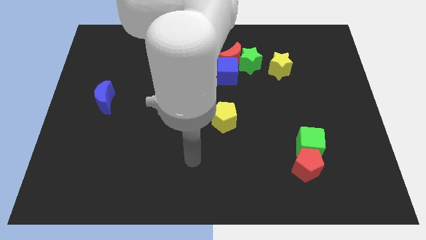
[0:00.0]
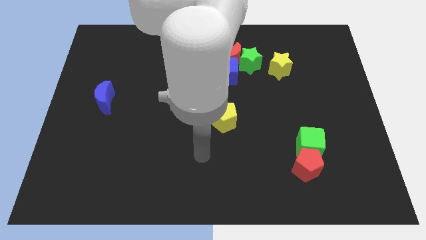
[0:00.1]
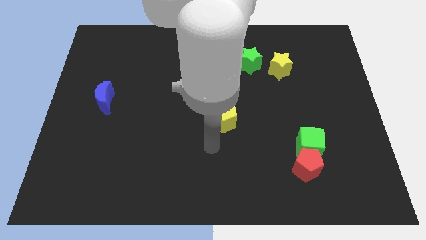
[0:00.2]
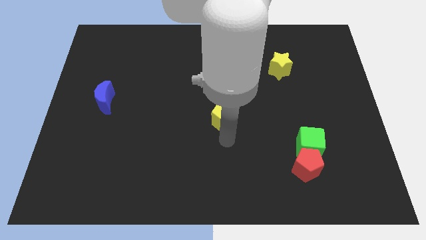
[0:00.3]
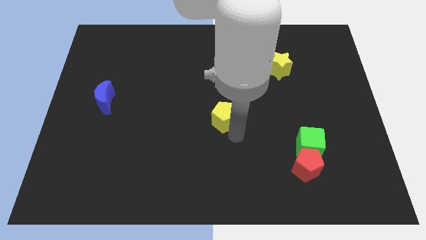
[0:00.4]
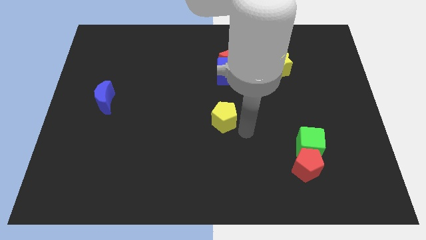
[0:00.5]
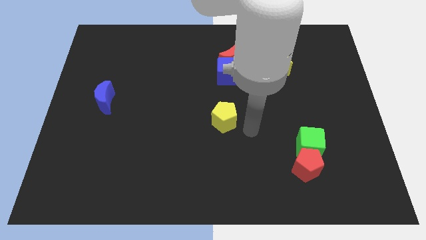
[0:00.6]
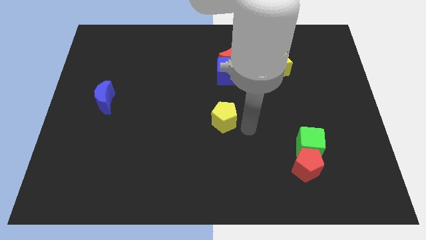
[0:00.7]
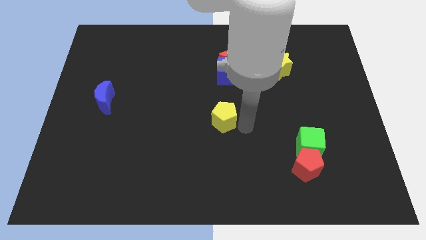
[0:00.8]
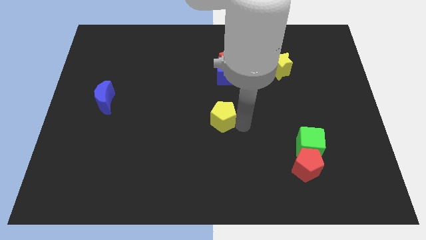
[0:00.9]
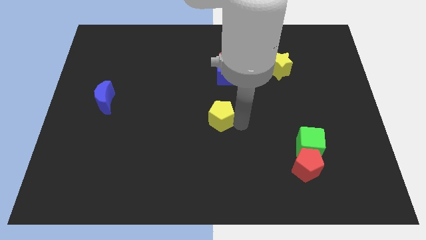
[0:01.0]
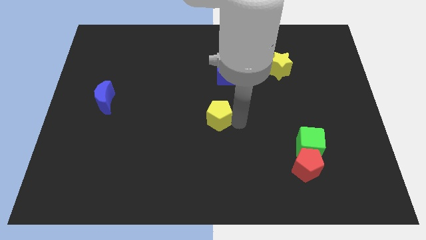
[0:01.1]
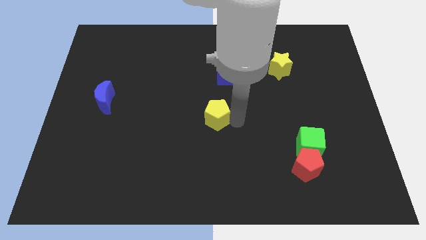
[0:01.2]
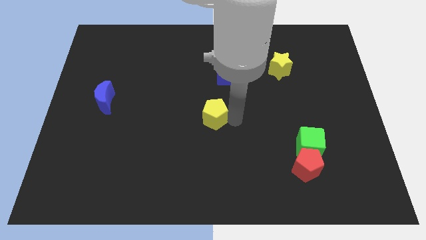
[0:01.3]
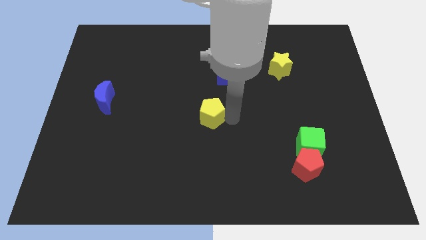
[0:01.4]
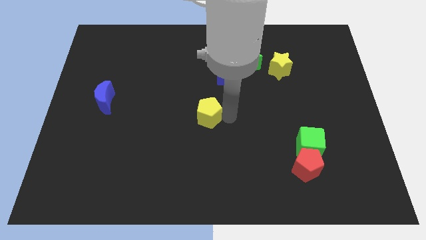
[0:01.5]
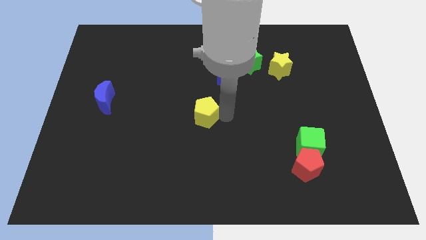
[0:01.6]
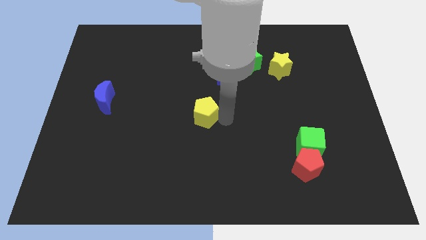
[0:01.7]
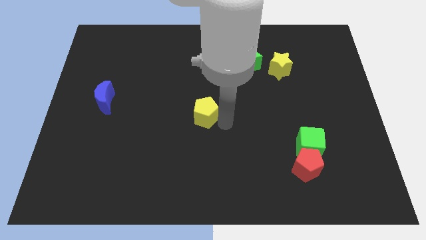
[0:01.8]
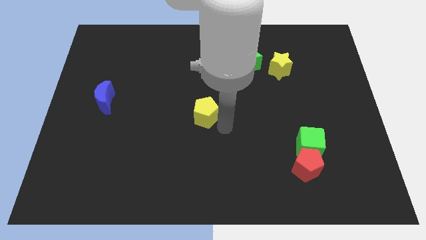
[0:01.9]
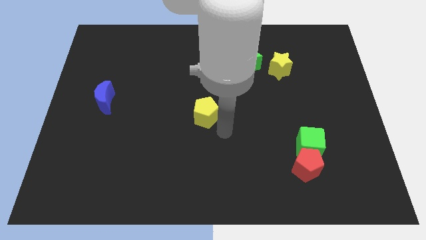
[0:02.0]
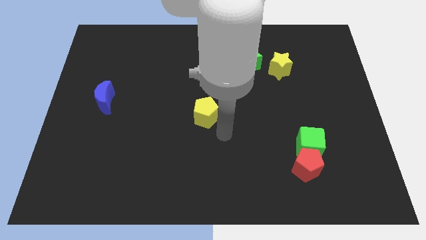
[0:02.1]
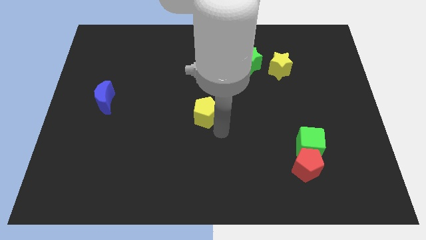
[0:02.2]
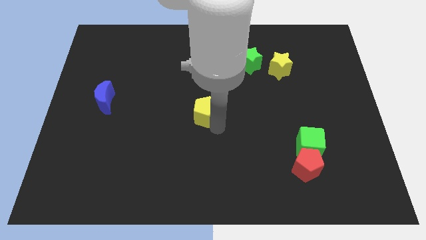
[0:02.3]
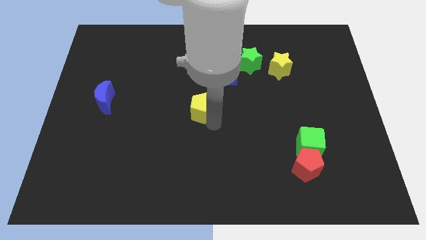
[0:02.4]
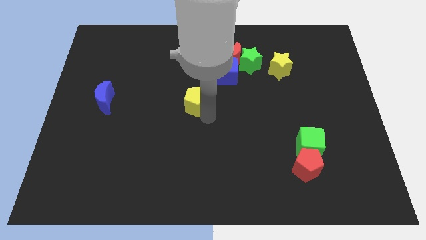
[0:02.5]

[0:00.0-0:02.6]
slide the yellow pentagon slightly up and left diagonally

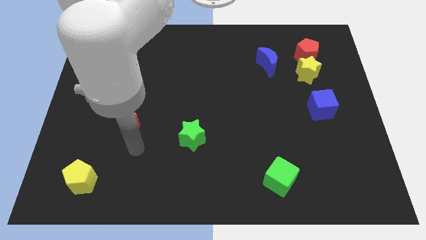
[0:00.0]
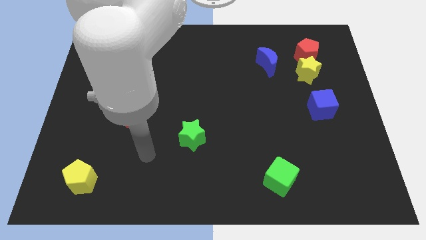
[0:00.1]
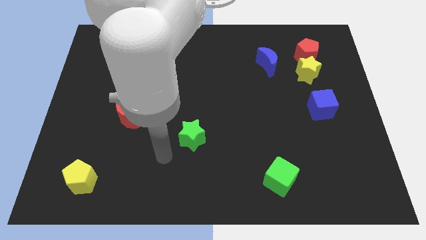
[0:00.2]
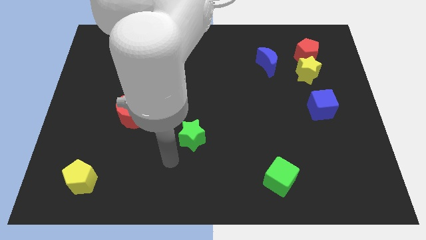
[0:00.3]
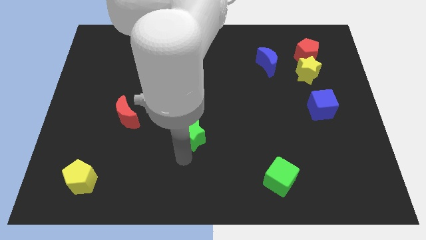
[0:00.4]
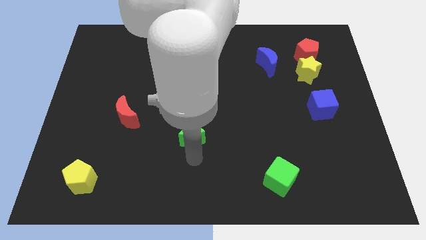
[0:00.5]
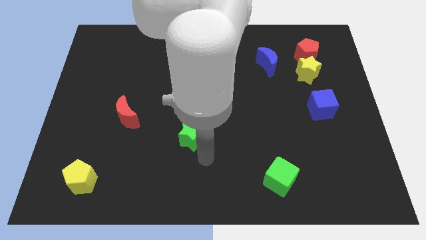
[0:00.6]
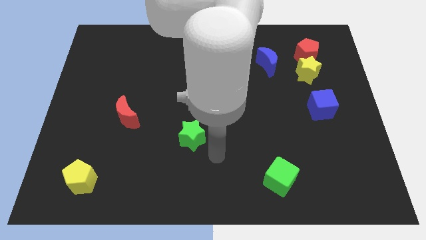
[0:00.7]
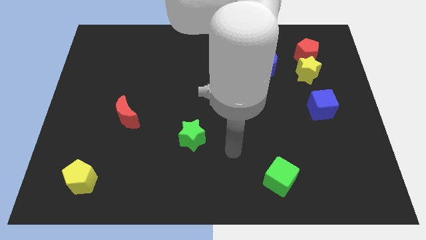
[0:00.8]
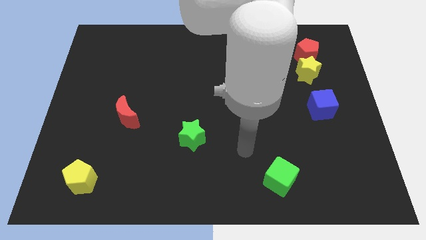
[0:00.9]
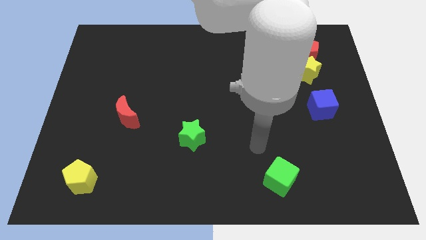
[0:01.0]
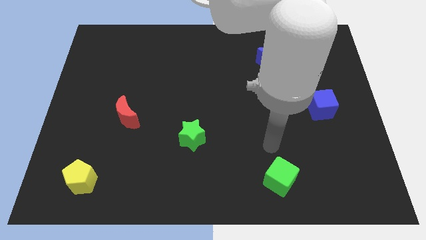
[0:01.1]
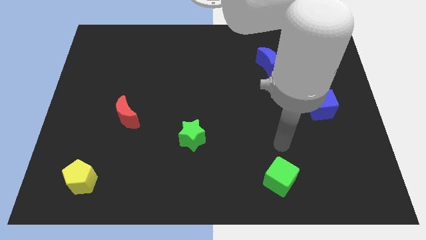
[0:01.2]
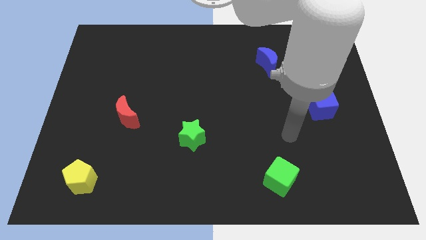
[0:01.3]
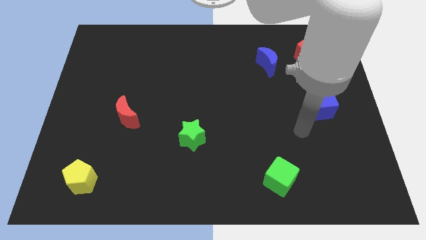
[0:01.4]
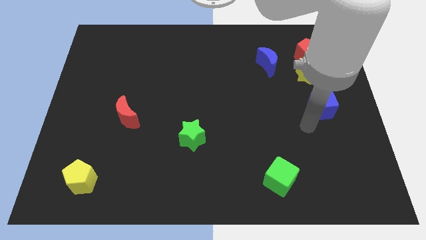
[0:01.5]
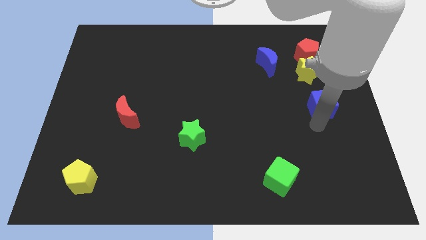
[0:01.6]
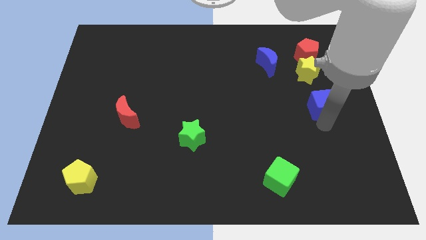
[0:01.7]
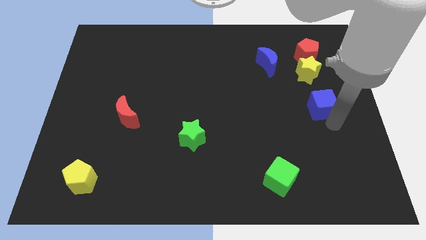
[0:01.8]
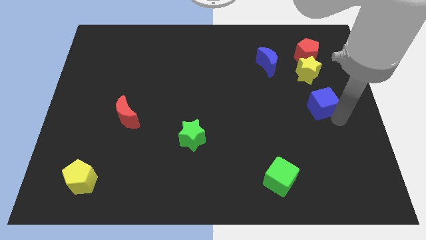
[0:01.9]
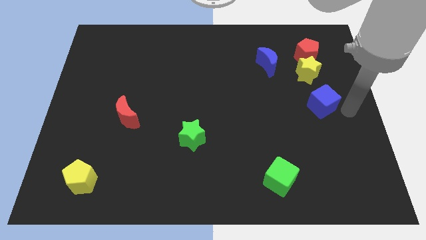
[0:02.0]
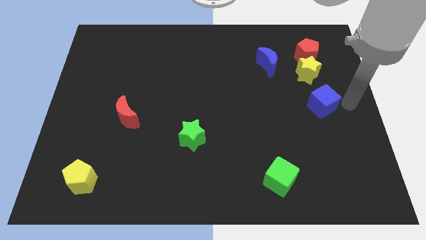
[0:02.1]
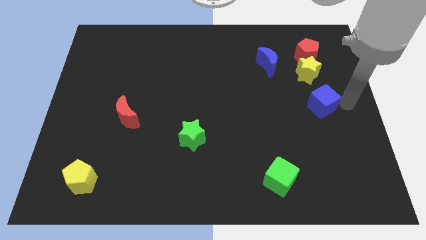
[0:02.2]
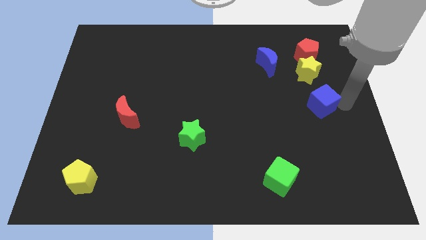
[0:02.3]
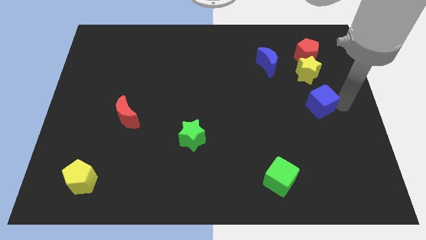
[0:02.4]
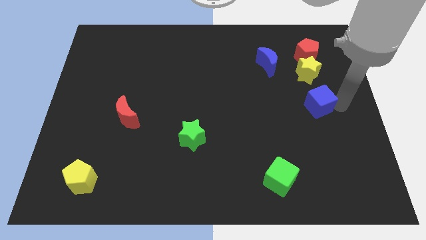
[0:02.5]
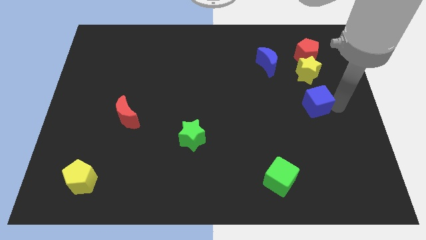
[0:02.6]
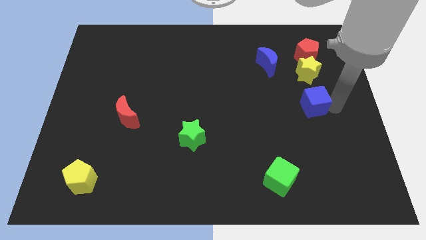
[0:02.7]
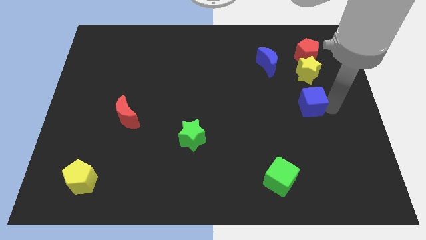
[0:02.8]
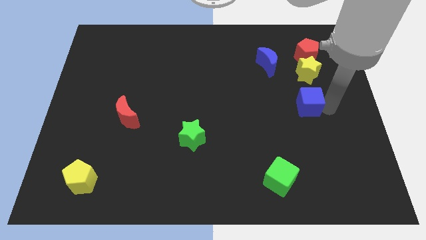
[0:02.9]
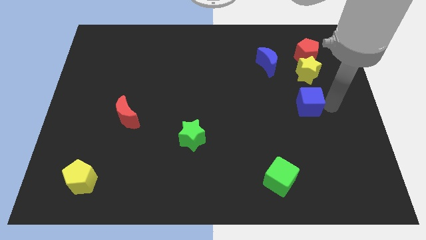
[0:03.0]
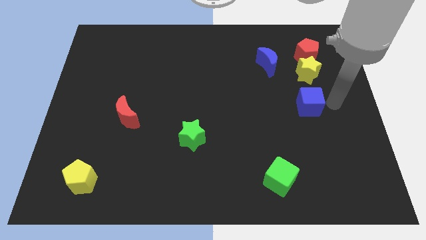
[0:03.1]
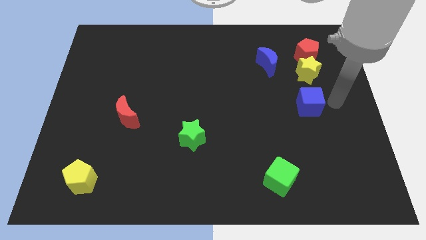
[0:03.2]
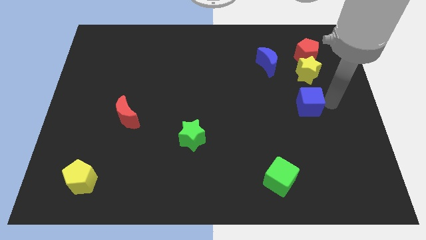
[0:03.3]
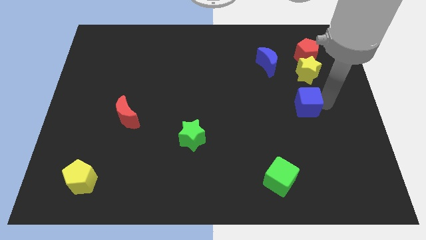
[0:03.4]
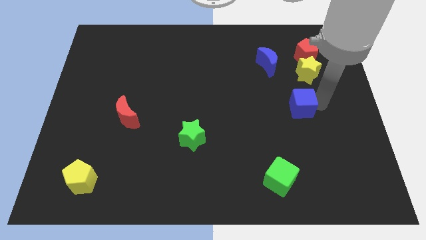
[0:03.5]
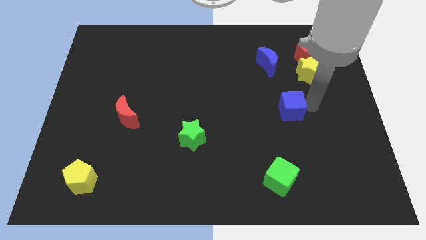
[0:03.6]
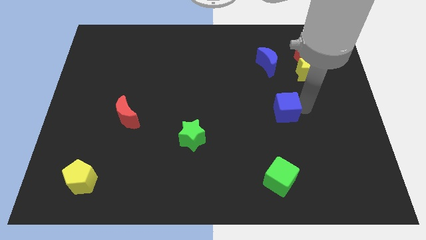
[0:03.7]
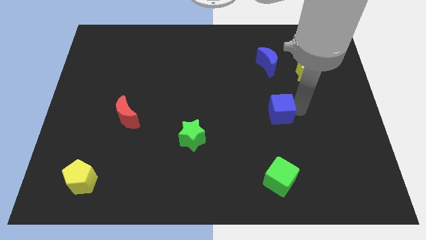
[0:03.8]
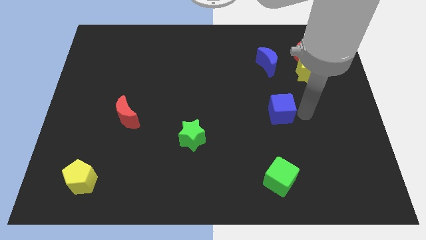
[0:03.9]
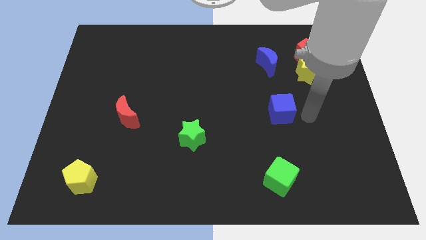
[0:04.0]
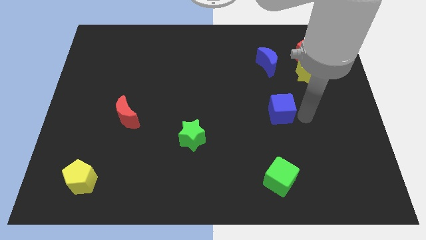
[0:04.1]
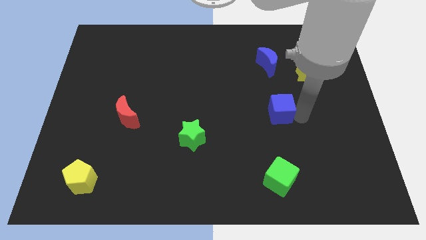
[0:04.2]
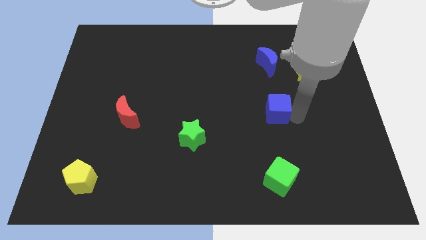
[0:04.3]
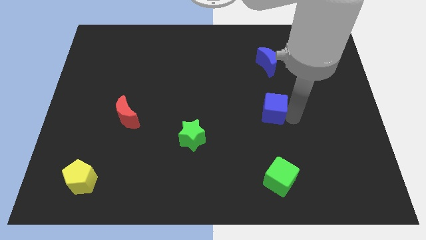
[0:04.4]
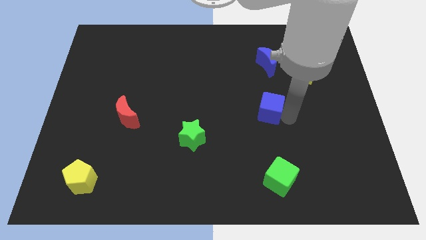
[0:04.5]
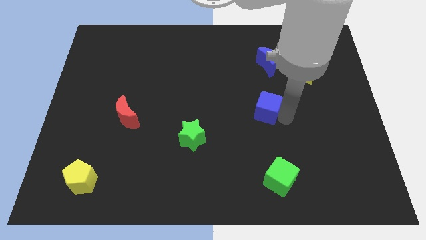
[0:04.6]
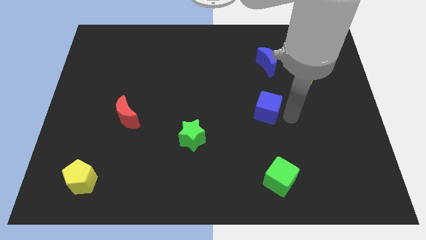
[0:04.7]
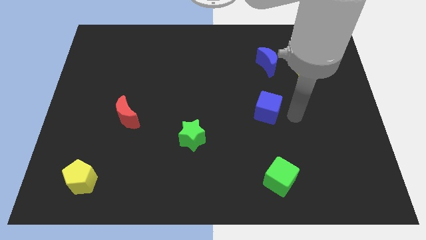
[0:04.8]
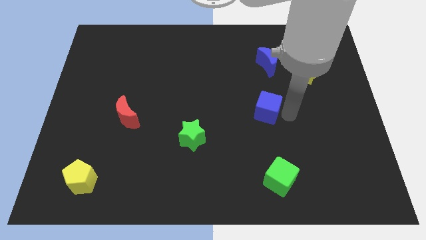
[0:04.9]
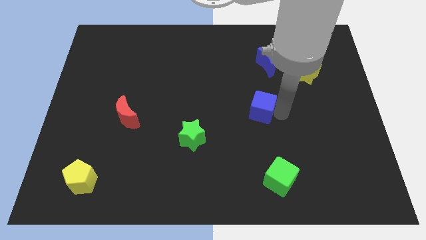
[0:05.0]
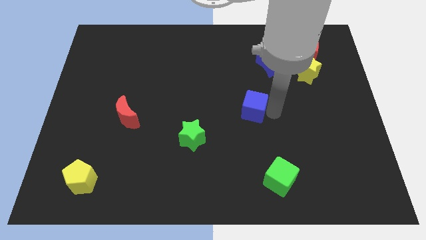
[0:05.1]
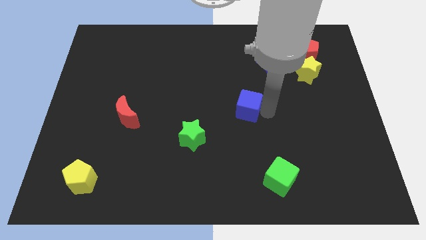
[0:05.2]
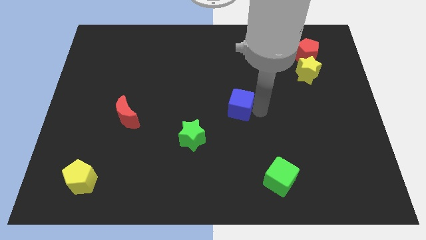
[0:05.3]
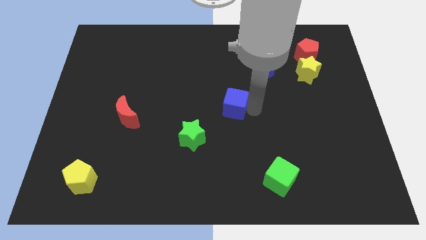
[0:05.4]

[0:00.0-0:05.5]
push the blue cube to the left
